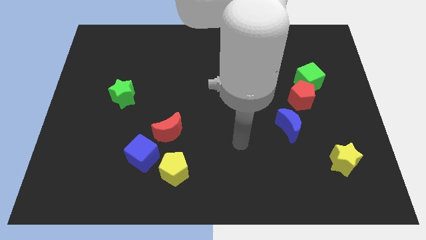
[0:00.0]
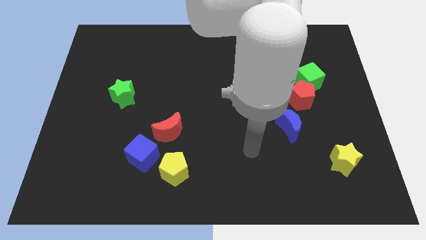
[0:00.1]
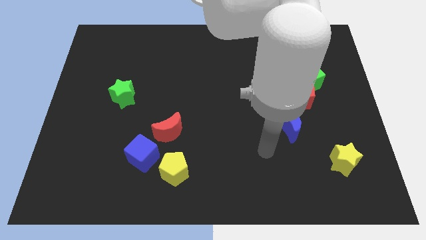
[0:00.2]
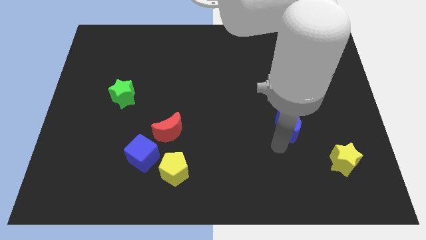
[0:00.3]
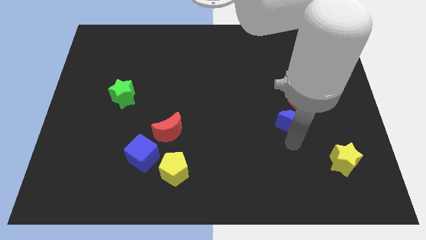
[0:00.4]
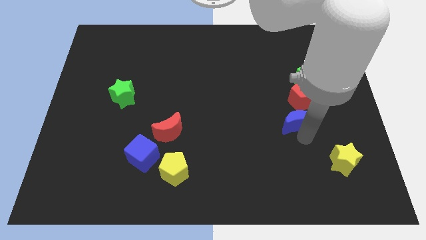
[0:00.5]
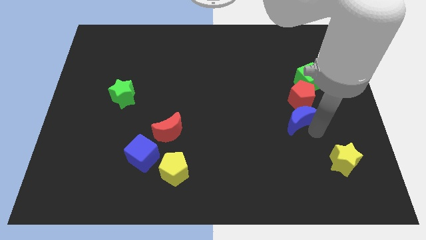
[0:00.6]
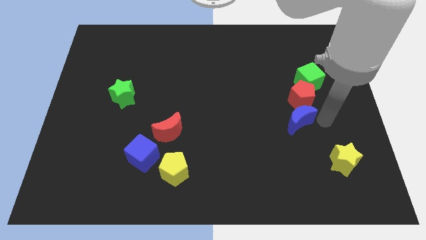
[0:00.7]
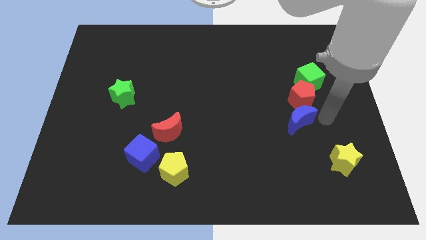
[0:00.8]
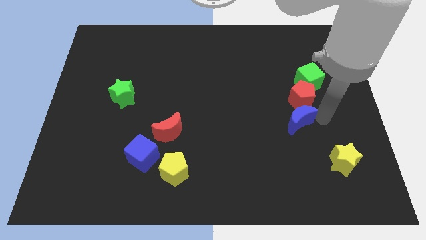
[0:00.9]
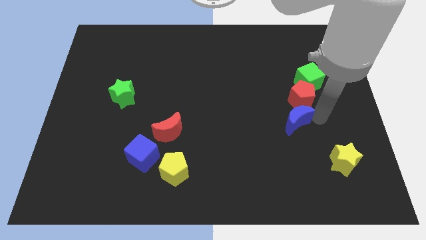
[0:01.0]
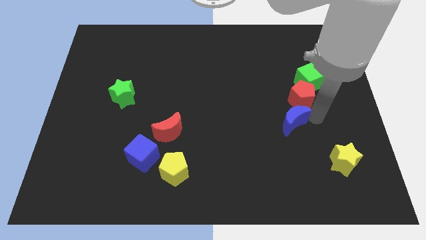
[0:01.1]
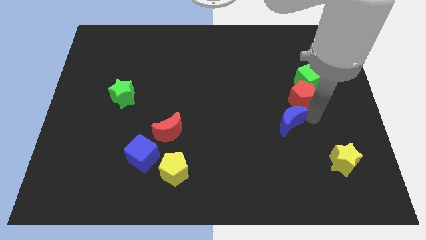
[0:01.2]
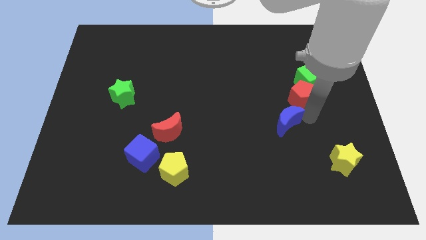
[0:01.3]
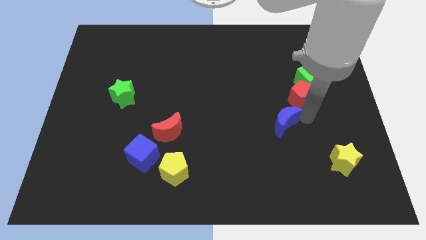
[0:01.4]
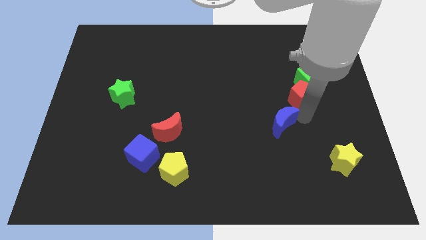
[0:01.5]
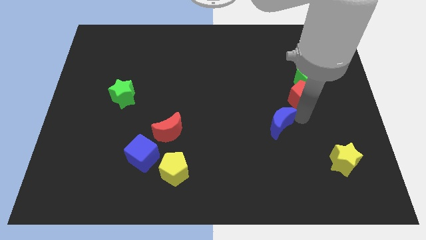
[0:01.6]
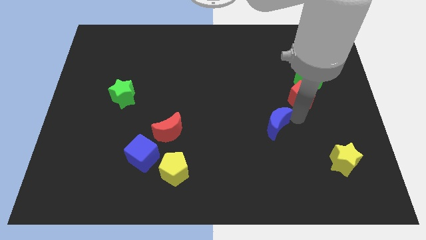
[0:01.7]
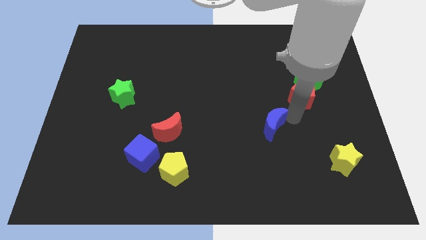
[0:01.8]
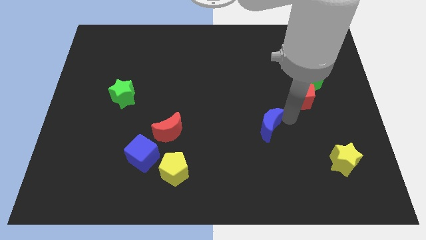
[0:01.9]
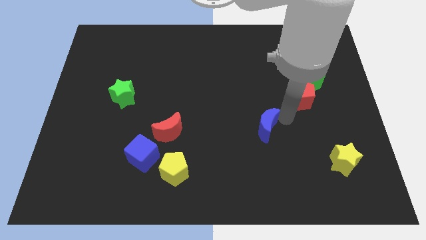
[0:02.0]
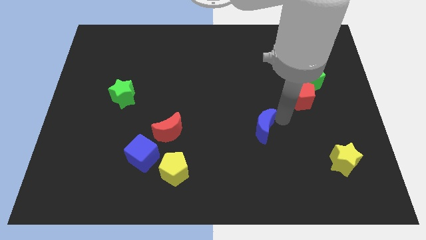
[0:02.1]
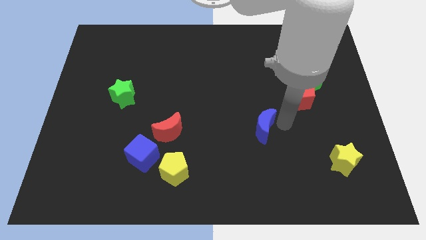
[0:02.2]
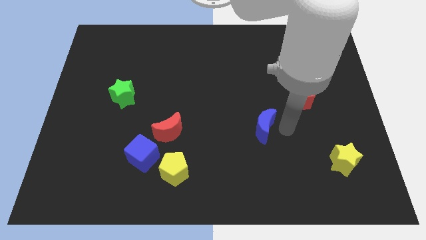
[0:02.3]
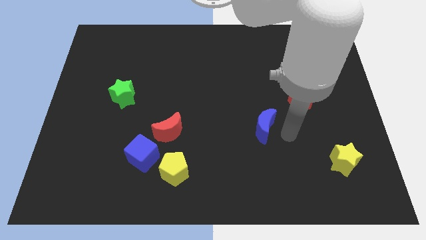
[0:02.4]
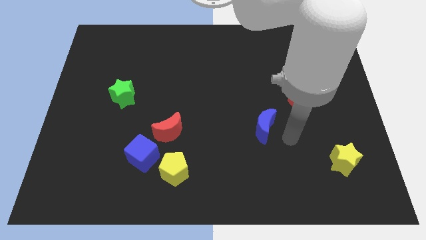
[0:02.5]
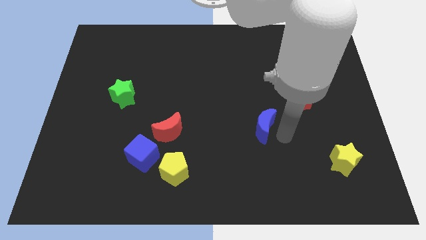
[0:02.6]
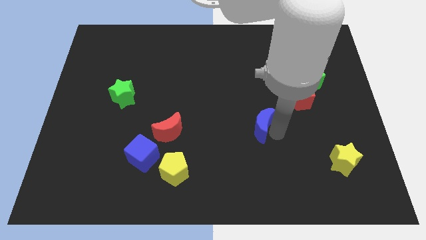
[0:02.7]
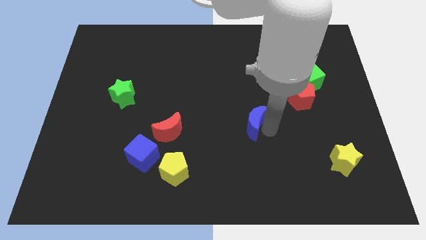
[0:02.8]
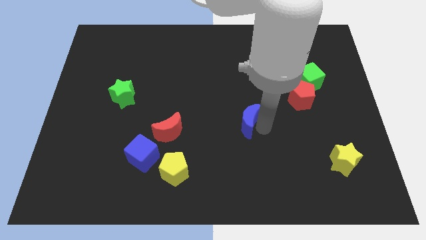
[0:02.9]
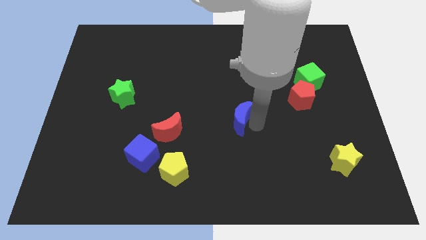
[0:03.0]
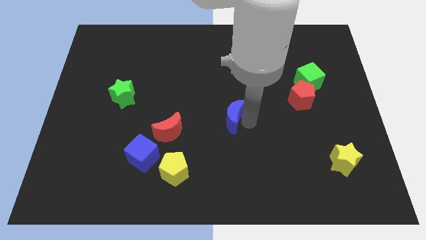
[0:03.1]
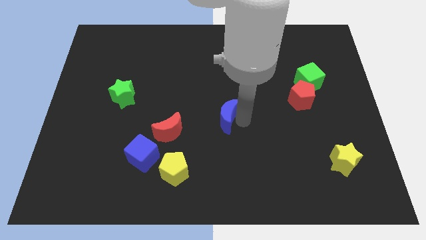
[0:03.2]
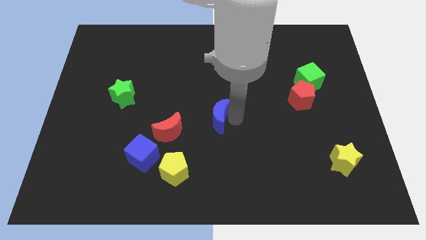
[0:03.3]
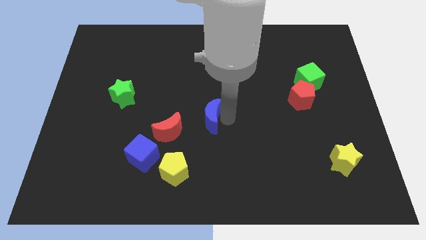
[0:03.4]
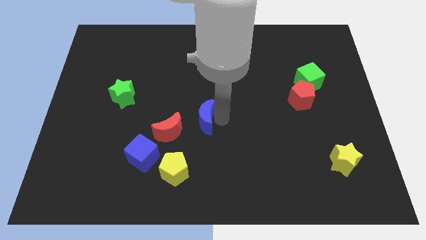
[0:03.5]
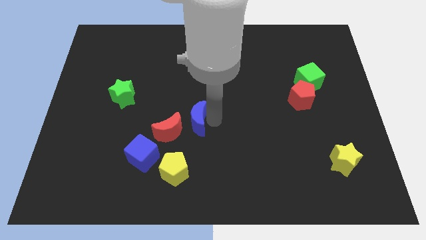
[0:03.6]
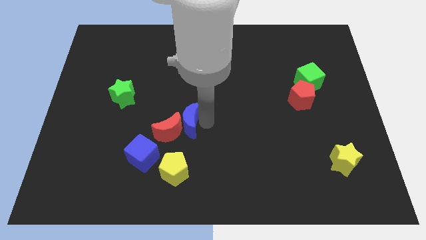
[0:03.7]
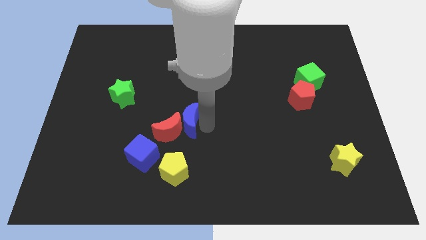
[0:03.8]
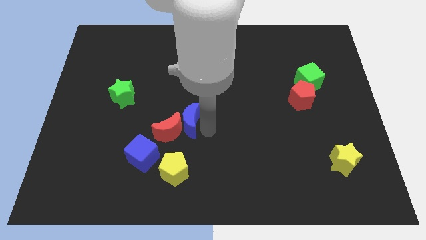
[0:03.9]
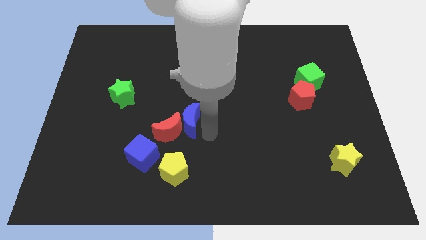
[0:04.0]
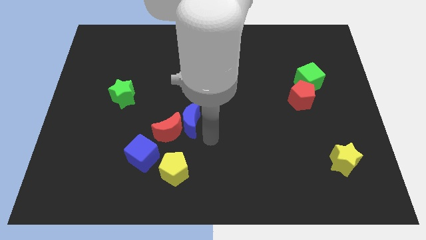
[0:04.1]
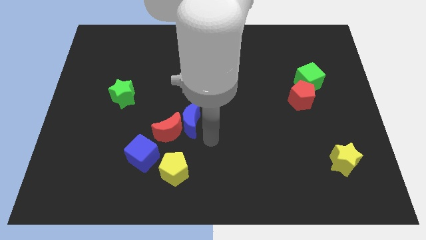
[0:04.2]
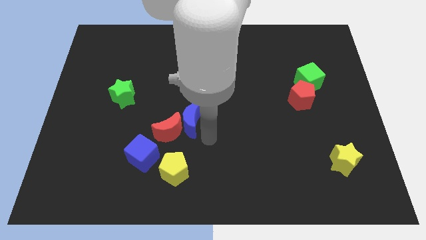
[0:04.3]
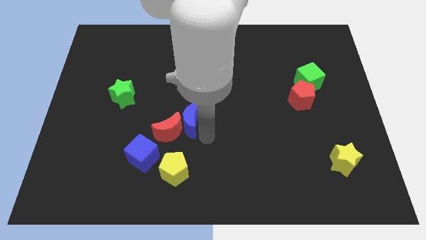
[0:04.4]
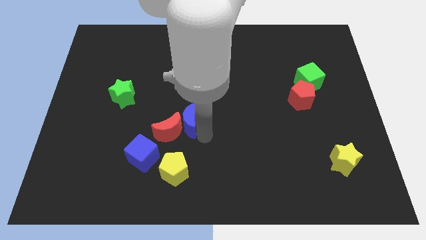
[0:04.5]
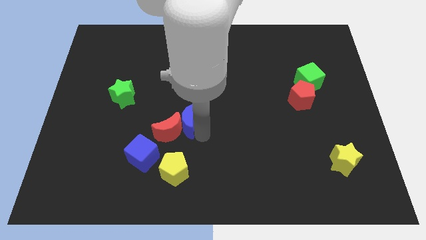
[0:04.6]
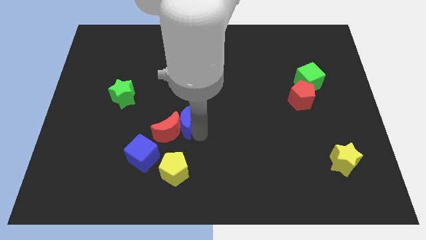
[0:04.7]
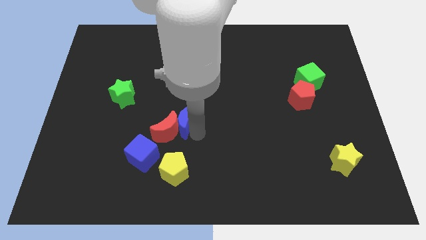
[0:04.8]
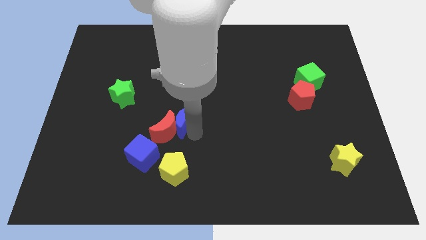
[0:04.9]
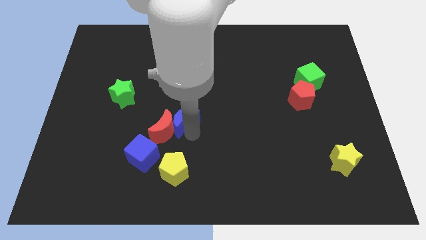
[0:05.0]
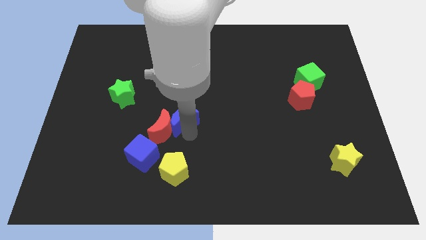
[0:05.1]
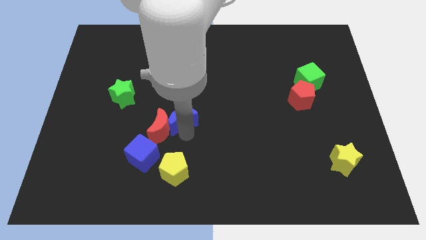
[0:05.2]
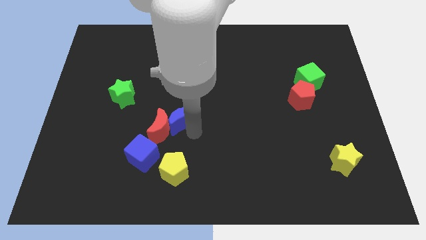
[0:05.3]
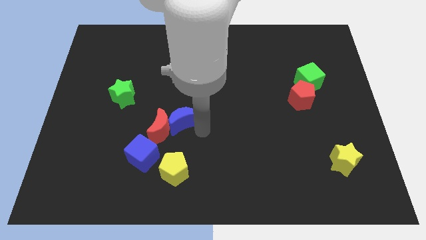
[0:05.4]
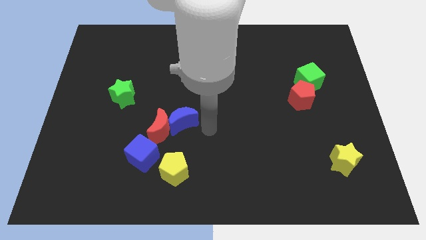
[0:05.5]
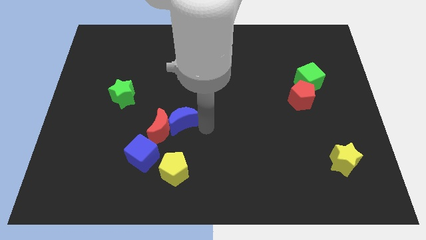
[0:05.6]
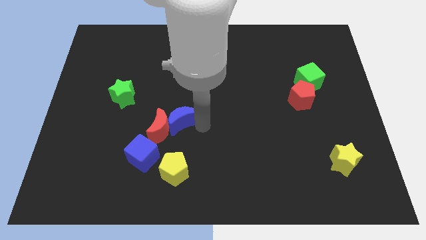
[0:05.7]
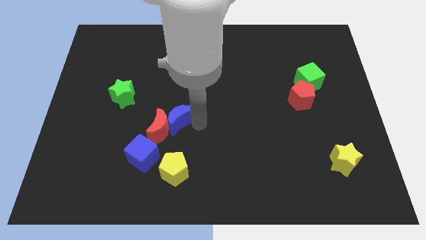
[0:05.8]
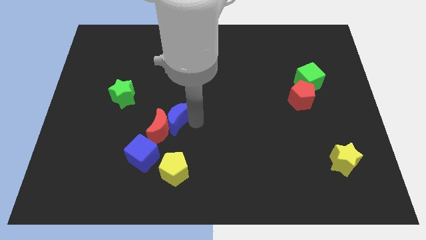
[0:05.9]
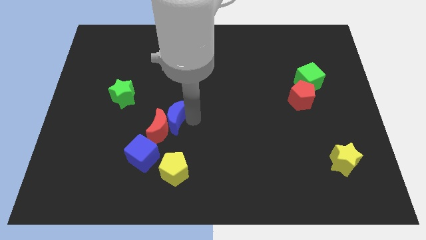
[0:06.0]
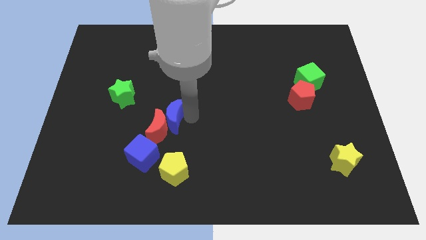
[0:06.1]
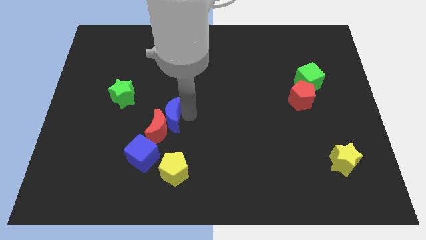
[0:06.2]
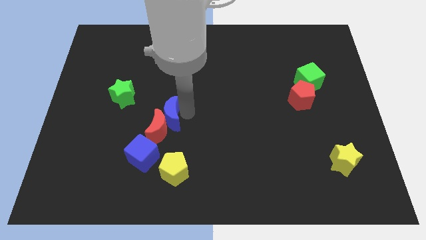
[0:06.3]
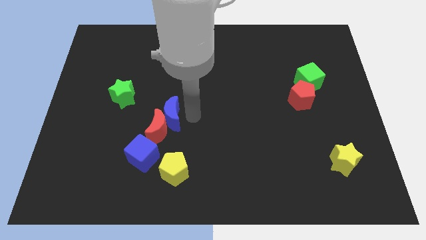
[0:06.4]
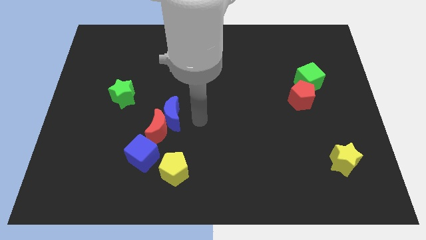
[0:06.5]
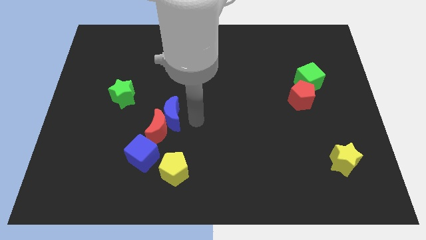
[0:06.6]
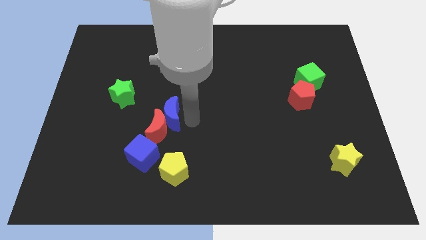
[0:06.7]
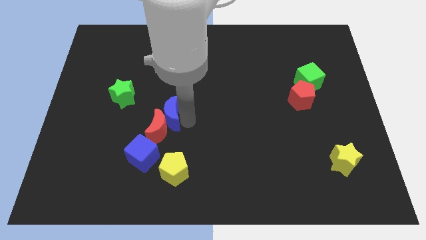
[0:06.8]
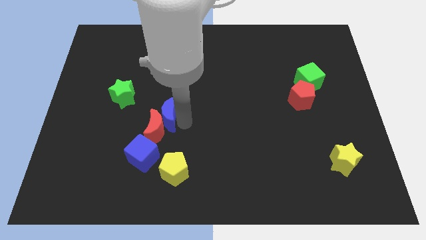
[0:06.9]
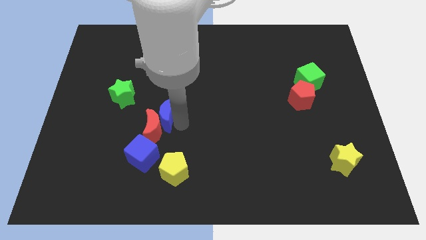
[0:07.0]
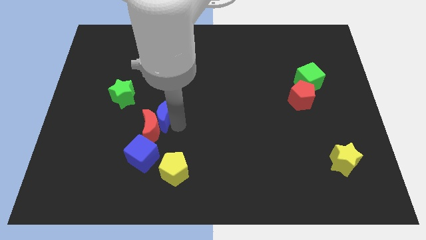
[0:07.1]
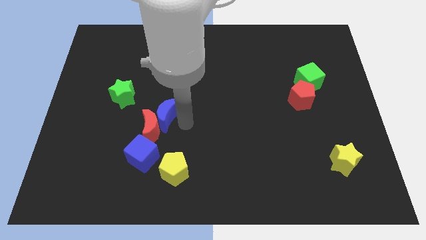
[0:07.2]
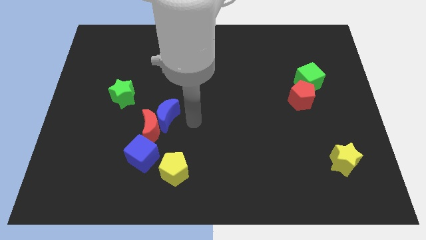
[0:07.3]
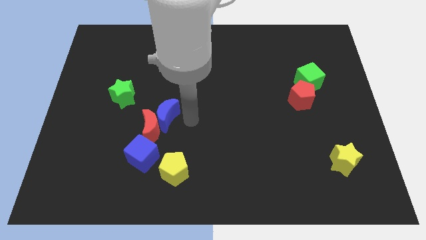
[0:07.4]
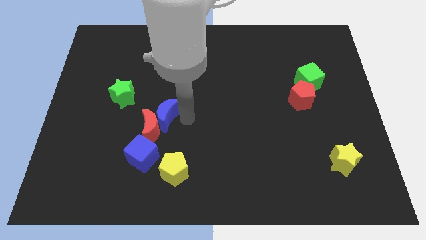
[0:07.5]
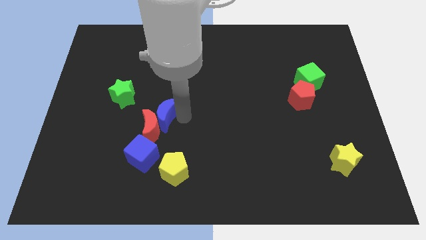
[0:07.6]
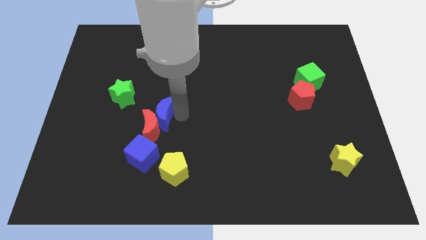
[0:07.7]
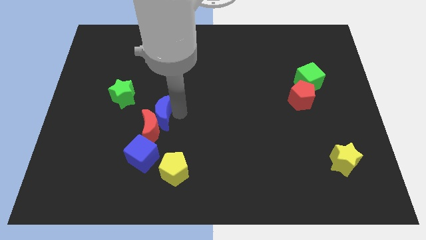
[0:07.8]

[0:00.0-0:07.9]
push the blue moon to the top left of the red moon
